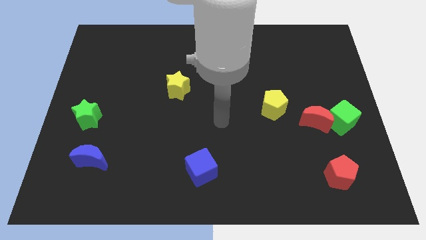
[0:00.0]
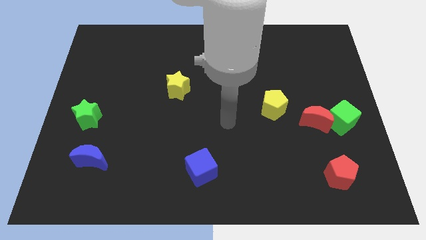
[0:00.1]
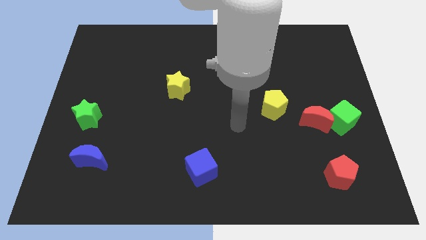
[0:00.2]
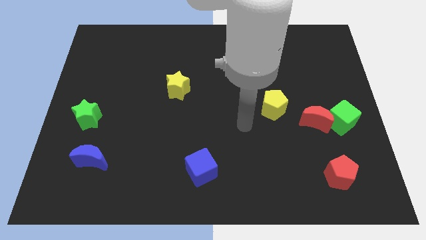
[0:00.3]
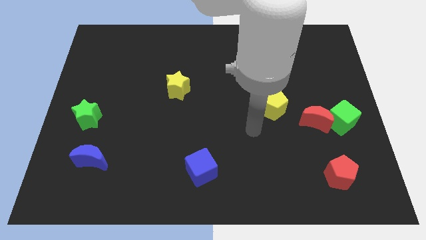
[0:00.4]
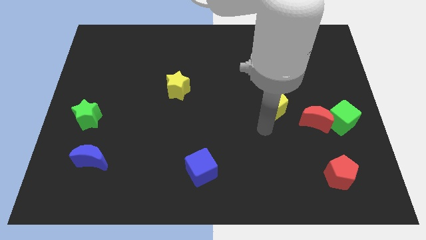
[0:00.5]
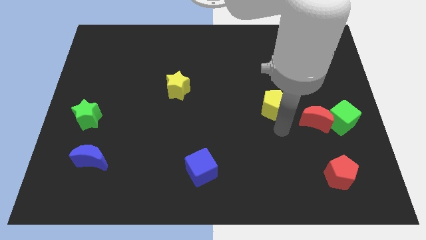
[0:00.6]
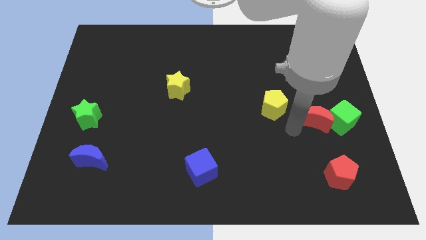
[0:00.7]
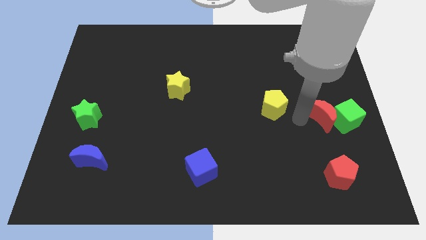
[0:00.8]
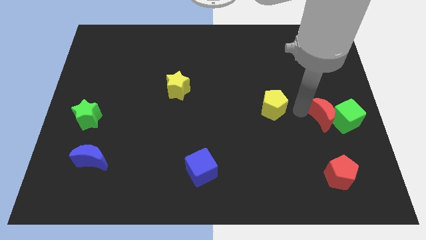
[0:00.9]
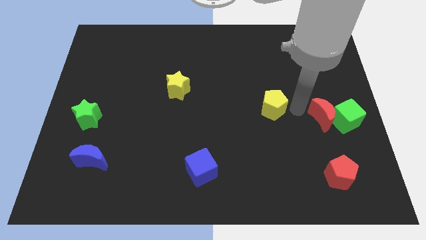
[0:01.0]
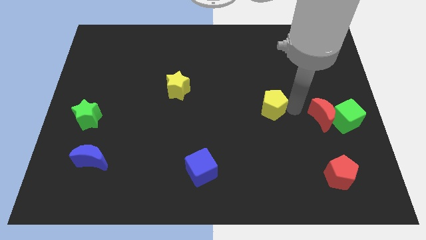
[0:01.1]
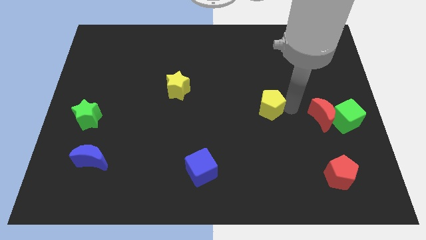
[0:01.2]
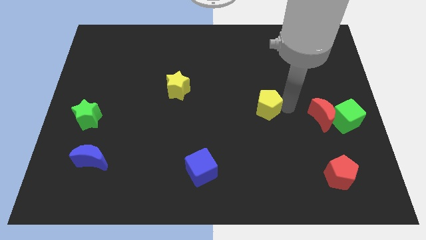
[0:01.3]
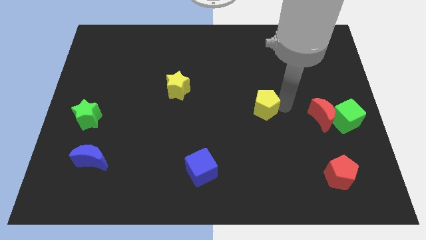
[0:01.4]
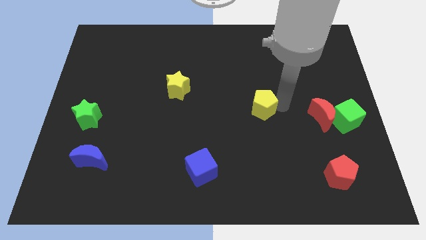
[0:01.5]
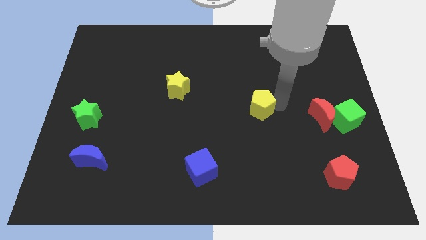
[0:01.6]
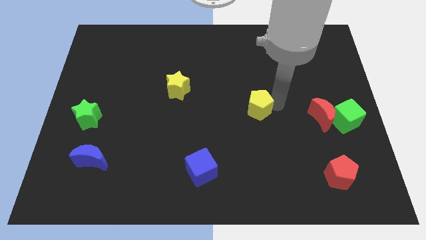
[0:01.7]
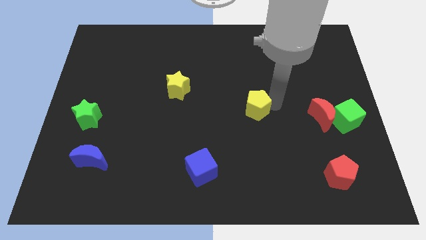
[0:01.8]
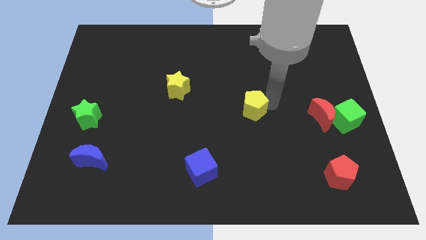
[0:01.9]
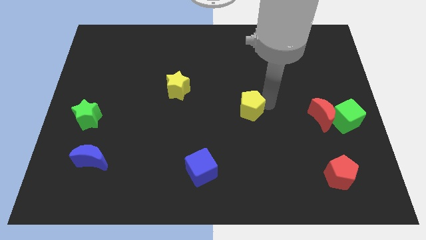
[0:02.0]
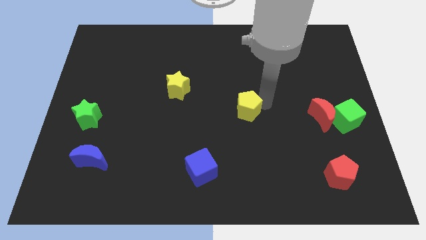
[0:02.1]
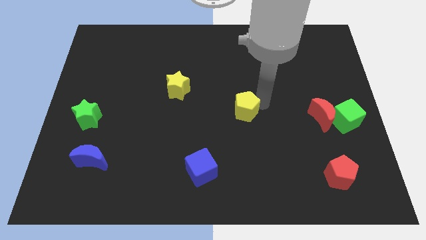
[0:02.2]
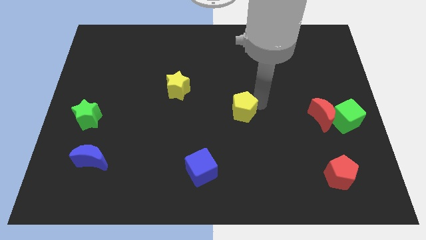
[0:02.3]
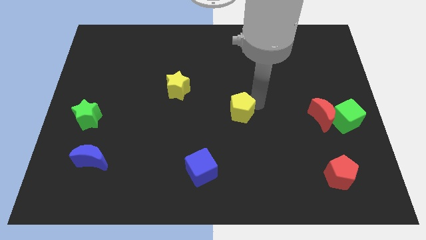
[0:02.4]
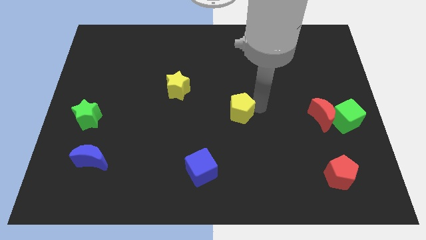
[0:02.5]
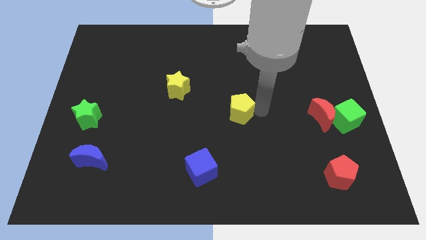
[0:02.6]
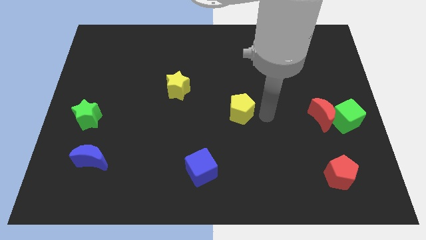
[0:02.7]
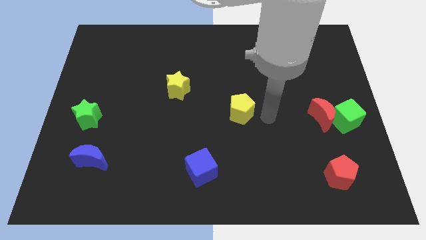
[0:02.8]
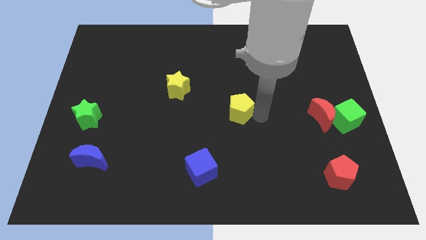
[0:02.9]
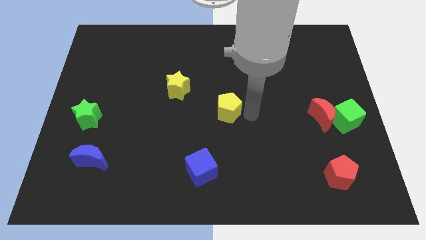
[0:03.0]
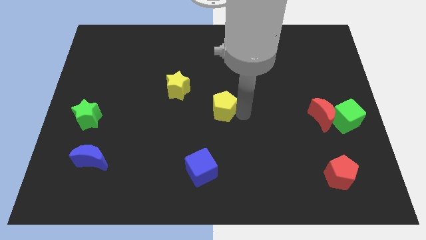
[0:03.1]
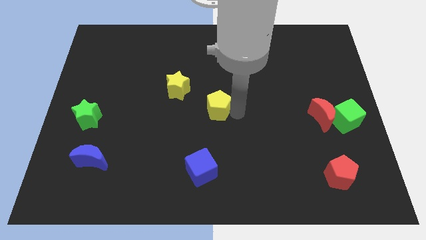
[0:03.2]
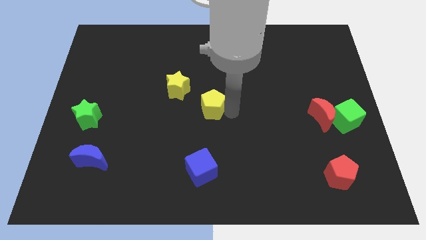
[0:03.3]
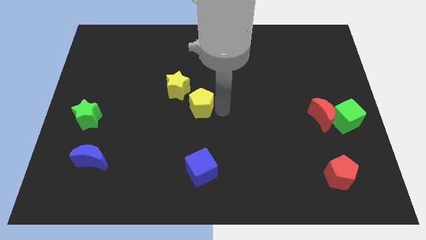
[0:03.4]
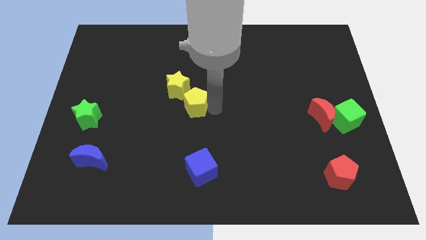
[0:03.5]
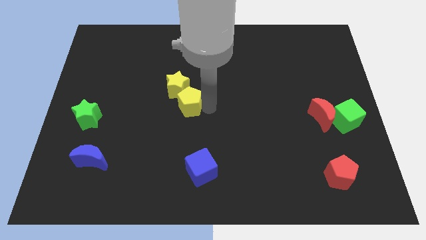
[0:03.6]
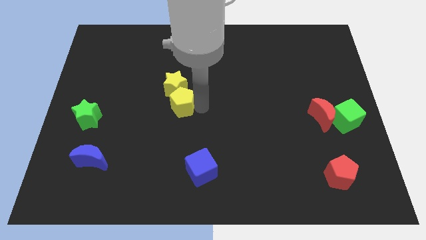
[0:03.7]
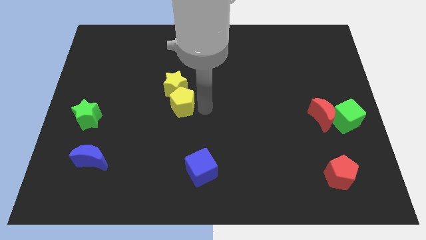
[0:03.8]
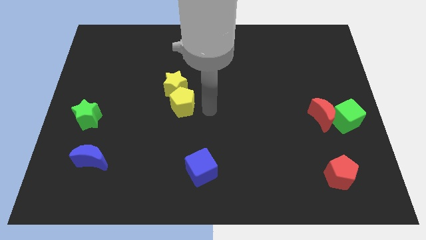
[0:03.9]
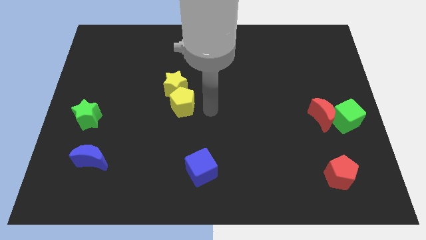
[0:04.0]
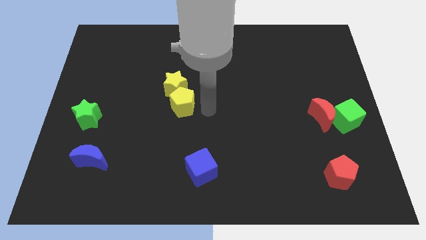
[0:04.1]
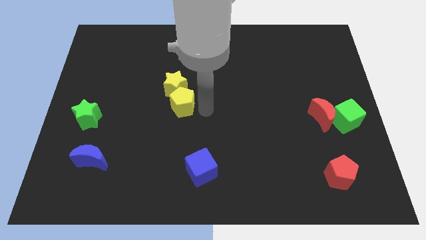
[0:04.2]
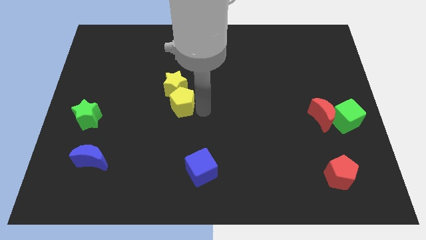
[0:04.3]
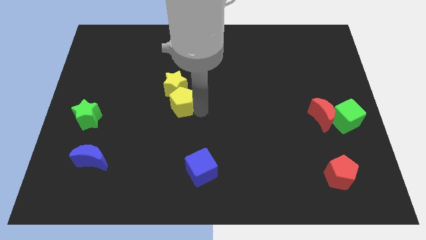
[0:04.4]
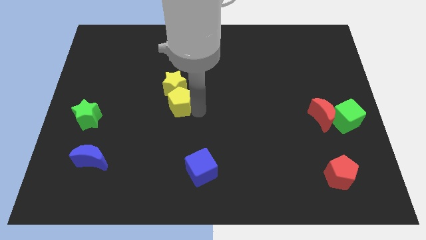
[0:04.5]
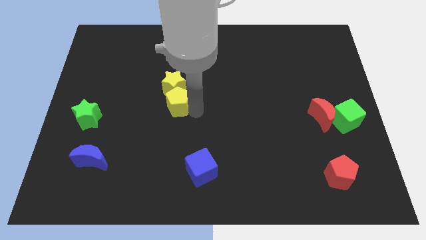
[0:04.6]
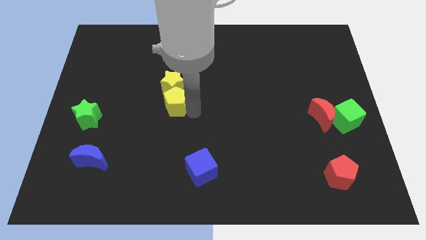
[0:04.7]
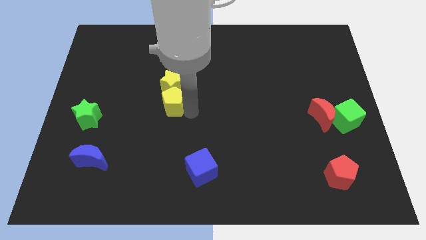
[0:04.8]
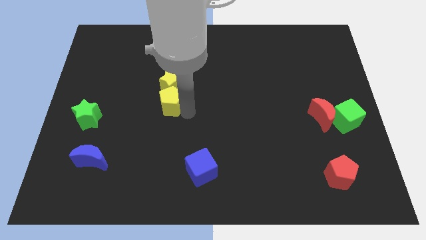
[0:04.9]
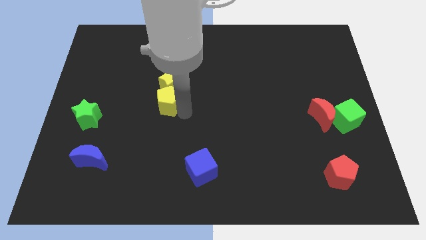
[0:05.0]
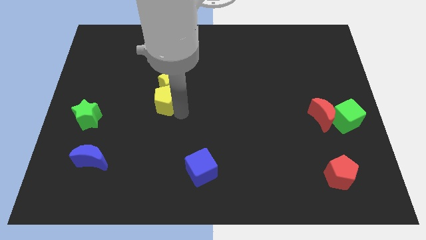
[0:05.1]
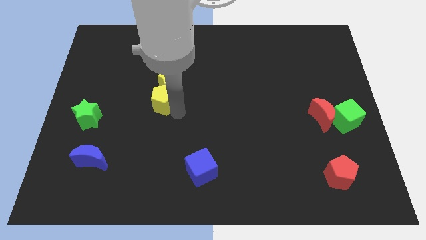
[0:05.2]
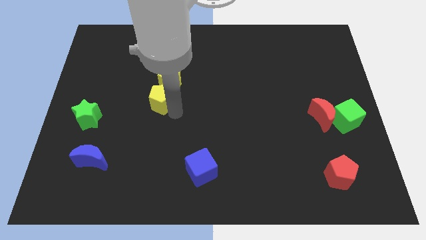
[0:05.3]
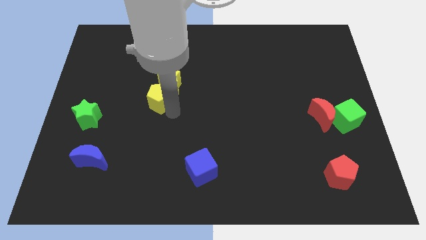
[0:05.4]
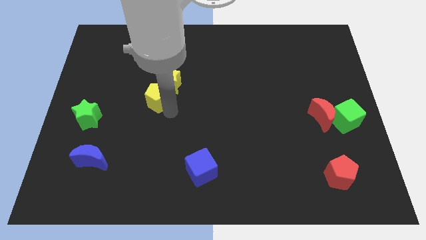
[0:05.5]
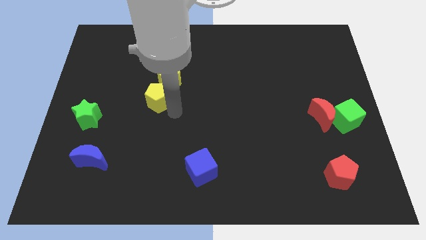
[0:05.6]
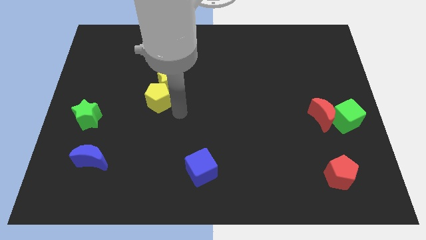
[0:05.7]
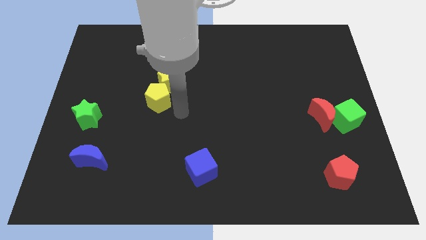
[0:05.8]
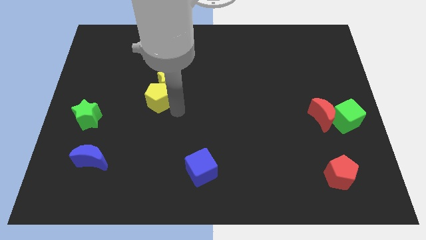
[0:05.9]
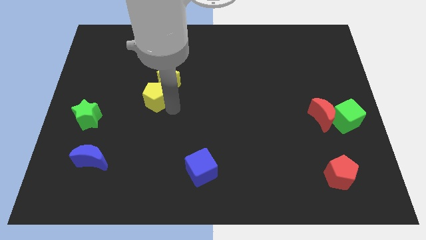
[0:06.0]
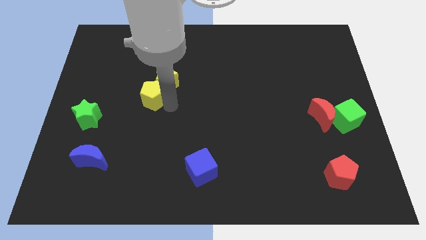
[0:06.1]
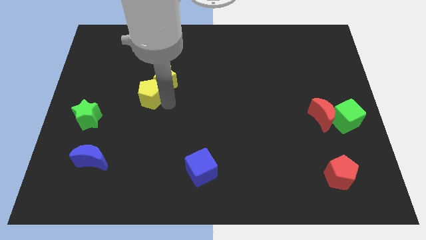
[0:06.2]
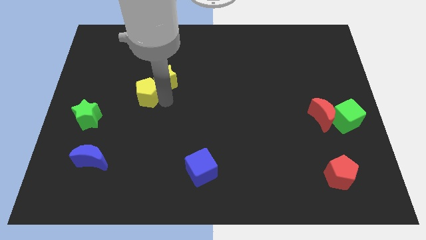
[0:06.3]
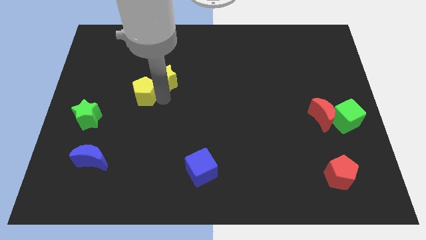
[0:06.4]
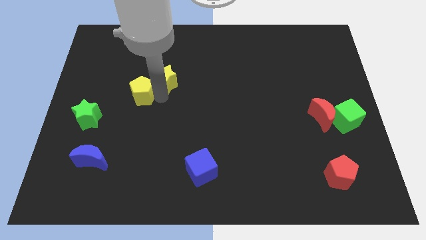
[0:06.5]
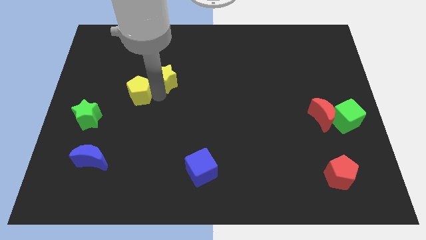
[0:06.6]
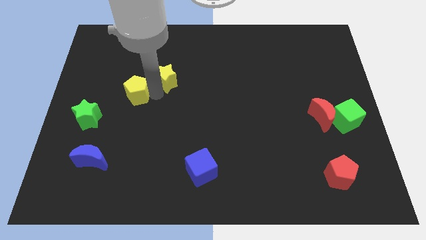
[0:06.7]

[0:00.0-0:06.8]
slide the yellow pentagon to the top right side of the green star
